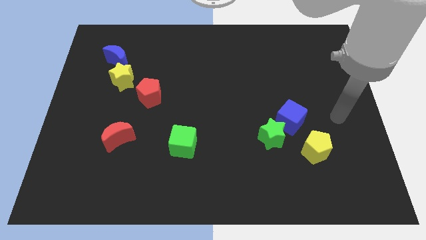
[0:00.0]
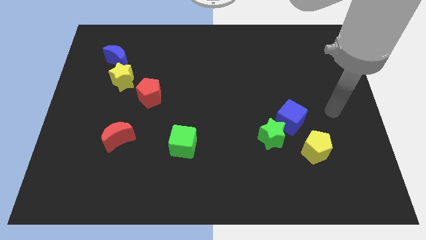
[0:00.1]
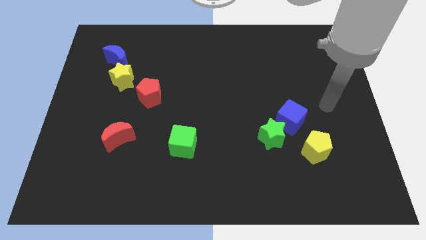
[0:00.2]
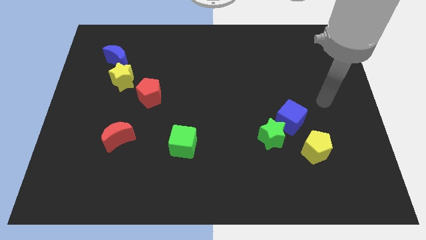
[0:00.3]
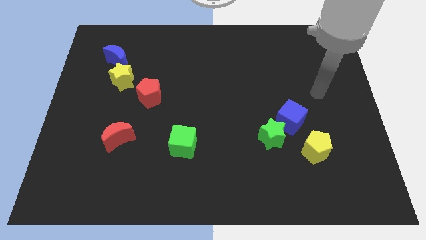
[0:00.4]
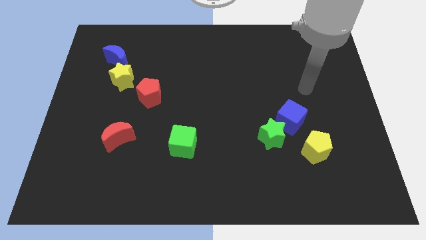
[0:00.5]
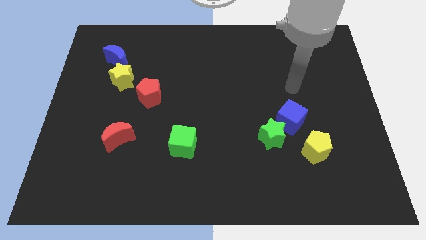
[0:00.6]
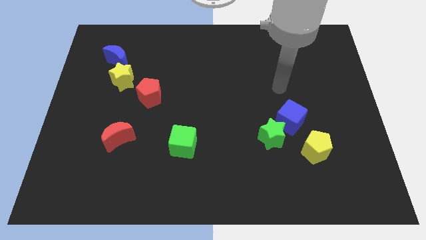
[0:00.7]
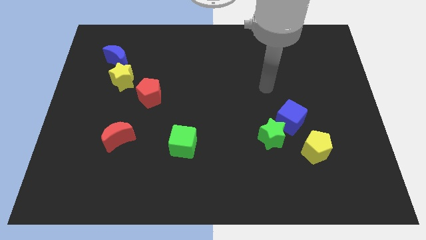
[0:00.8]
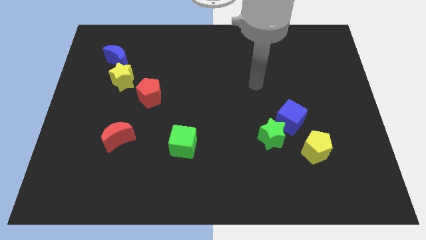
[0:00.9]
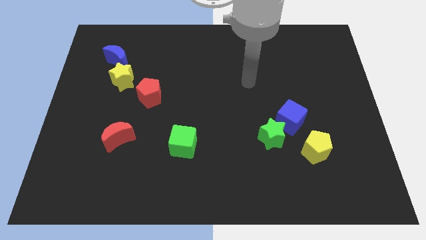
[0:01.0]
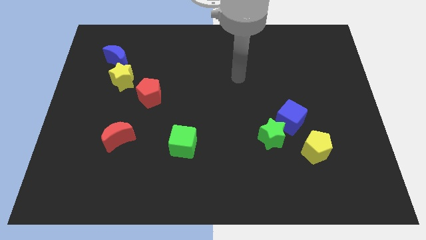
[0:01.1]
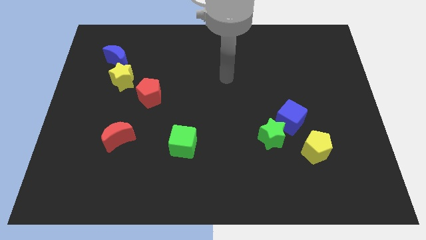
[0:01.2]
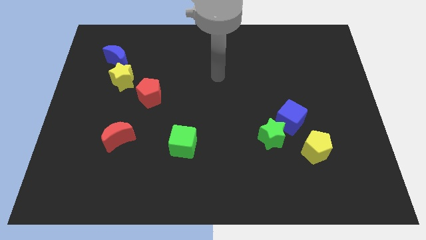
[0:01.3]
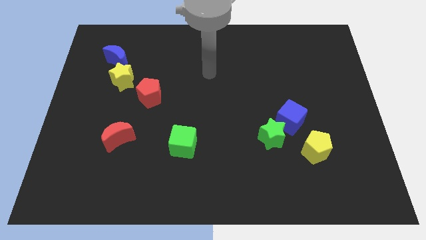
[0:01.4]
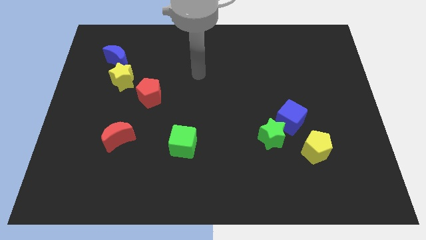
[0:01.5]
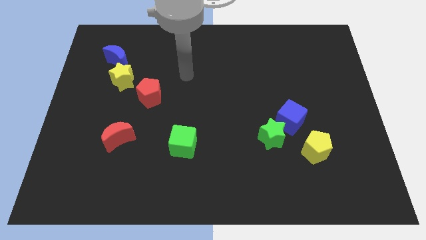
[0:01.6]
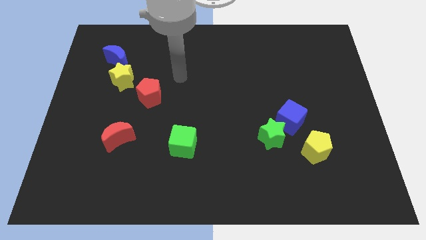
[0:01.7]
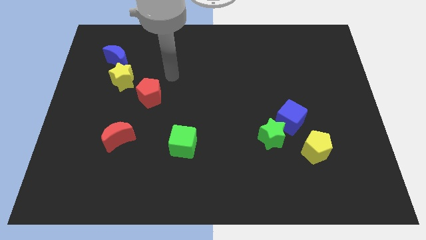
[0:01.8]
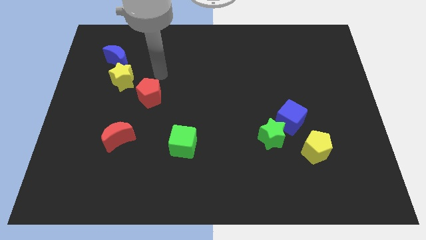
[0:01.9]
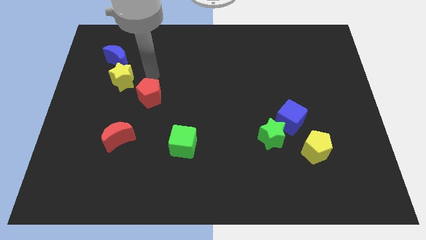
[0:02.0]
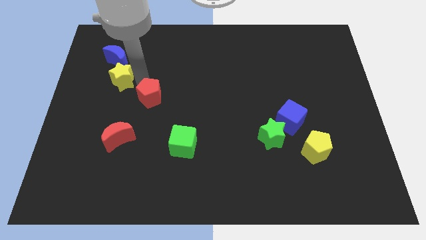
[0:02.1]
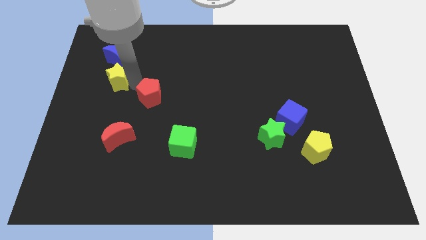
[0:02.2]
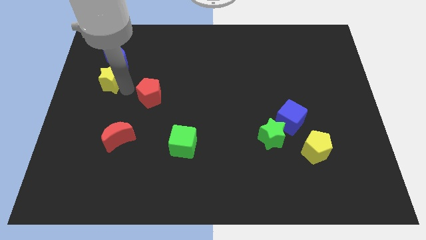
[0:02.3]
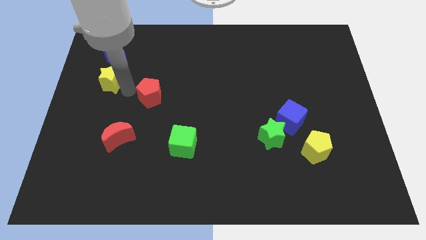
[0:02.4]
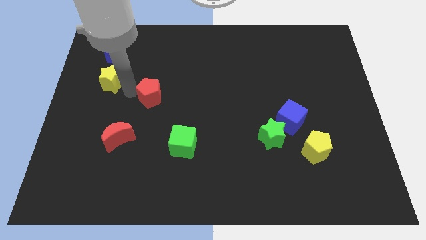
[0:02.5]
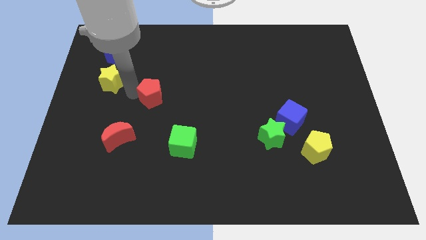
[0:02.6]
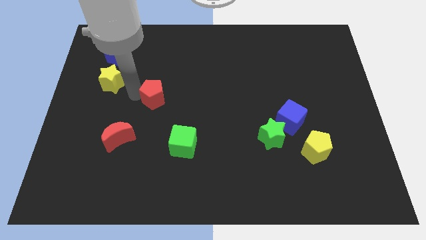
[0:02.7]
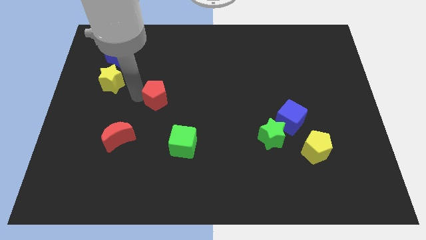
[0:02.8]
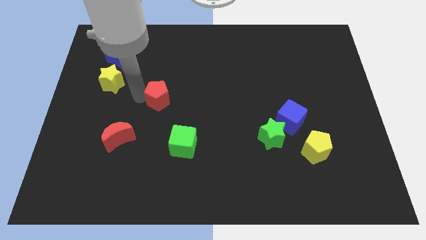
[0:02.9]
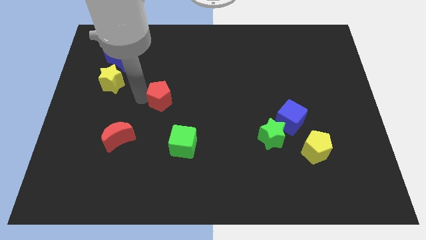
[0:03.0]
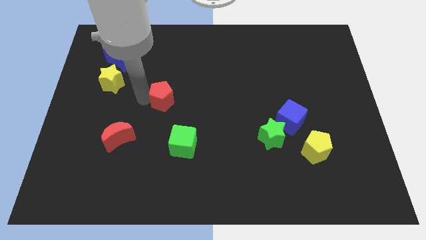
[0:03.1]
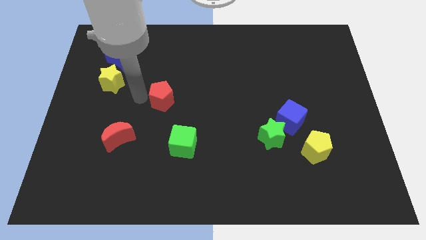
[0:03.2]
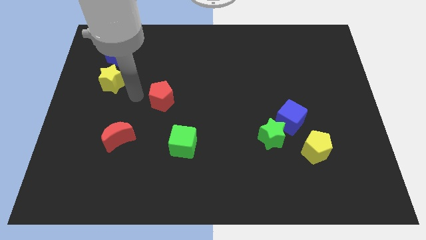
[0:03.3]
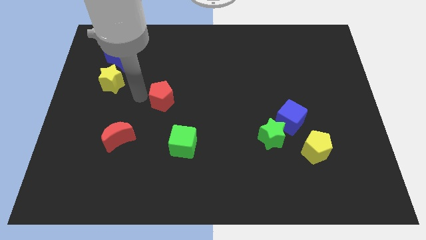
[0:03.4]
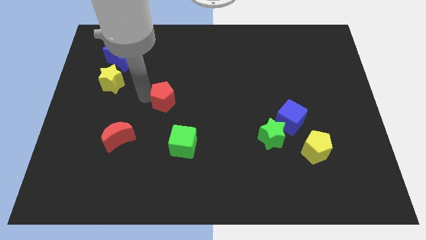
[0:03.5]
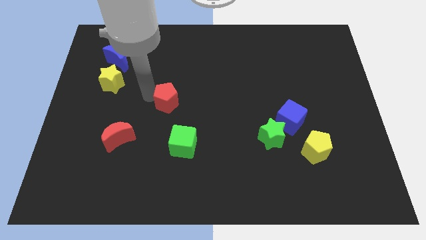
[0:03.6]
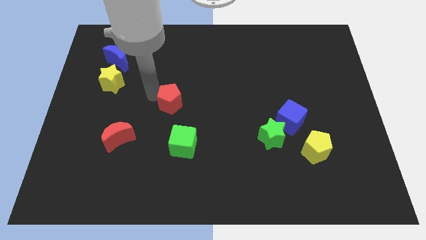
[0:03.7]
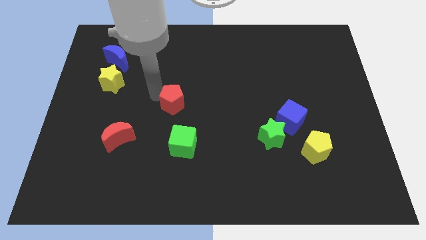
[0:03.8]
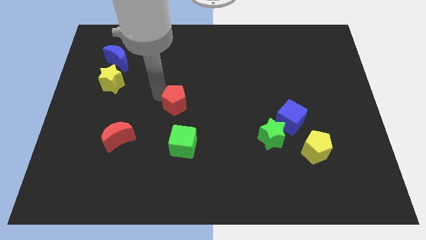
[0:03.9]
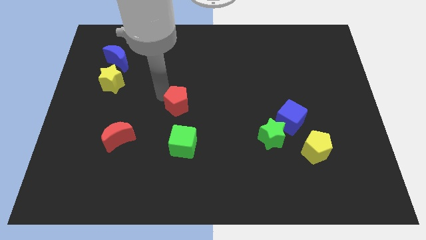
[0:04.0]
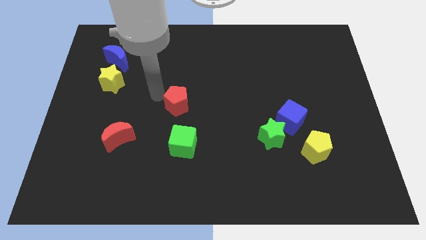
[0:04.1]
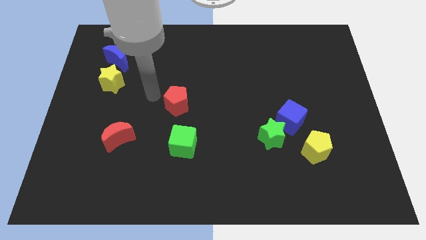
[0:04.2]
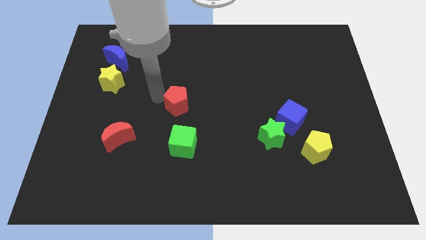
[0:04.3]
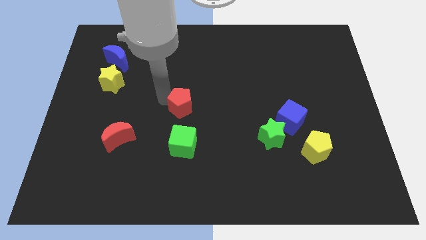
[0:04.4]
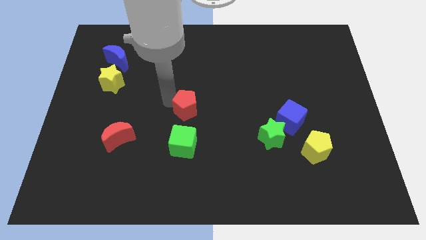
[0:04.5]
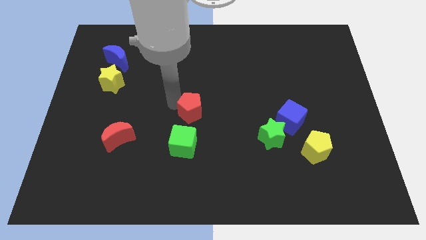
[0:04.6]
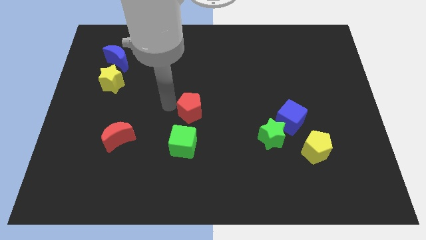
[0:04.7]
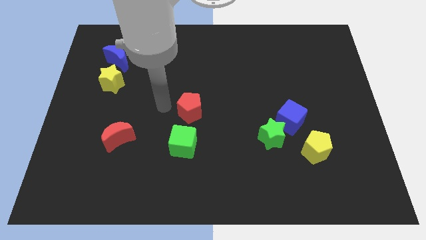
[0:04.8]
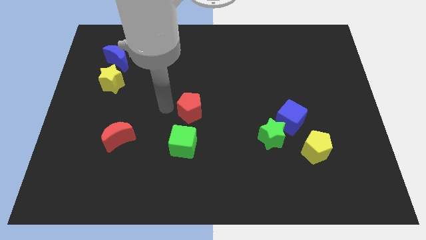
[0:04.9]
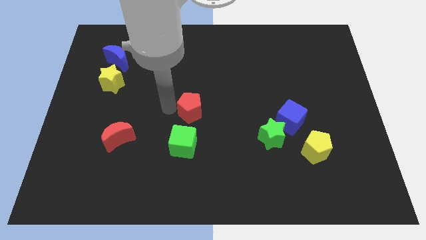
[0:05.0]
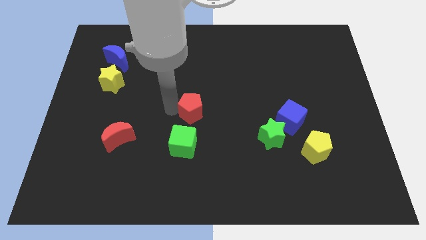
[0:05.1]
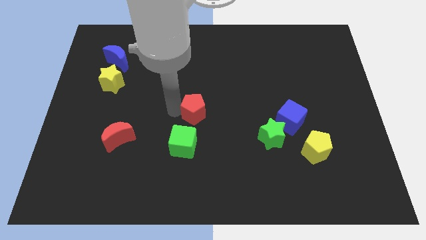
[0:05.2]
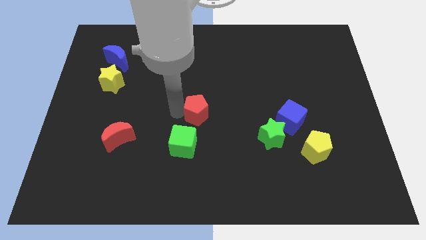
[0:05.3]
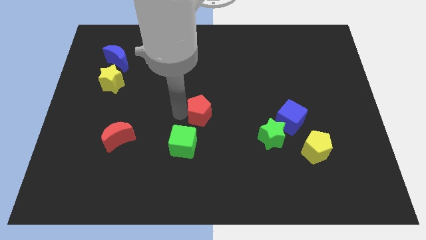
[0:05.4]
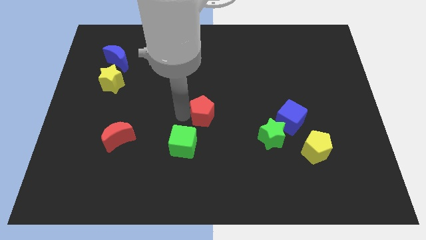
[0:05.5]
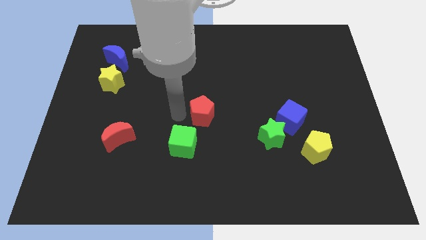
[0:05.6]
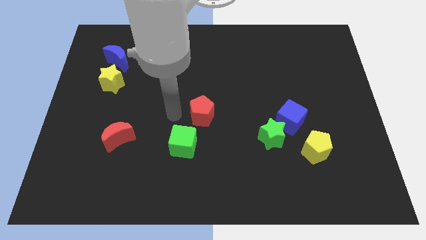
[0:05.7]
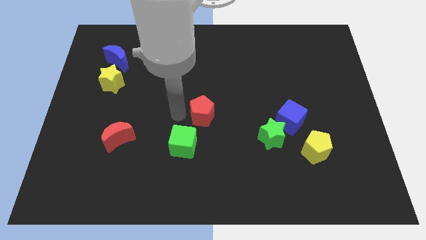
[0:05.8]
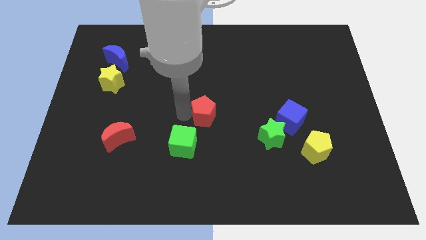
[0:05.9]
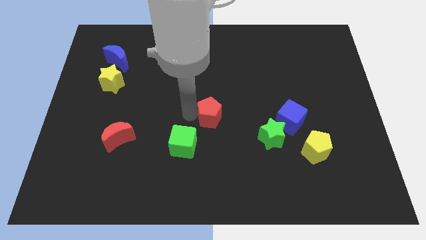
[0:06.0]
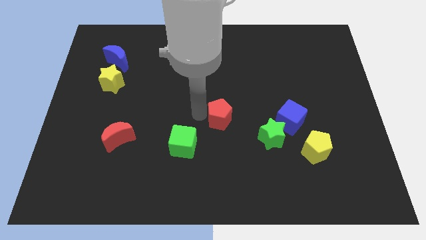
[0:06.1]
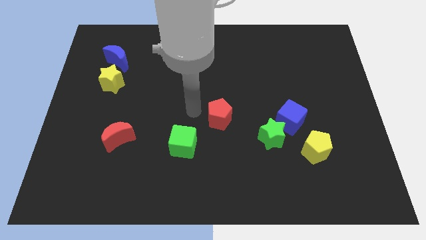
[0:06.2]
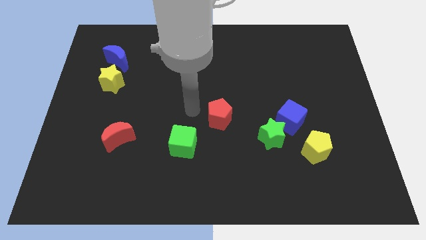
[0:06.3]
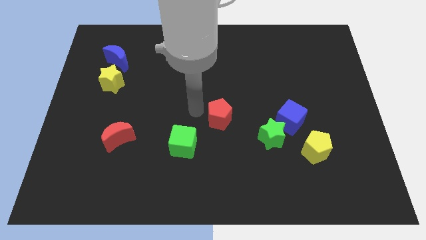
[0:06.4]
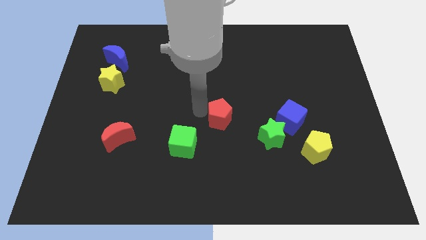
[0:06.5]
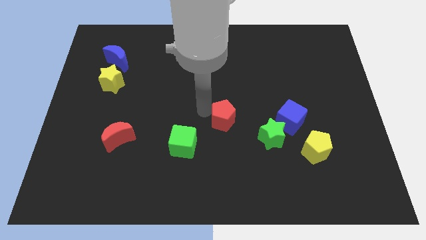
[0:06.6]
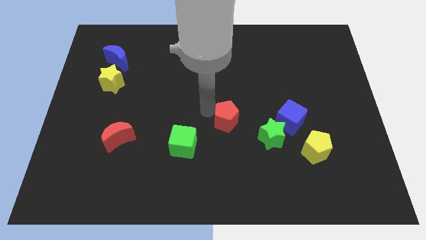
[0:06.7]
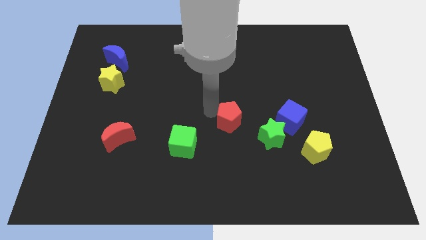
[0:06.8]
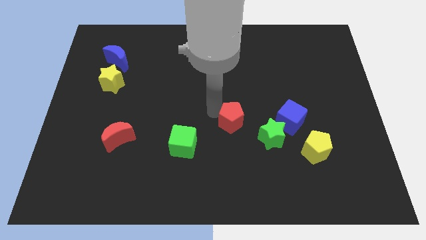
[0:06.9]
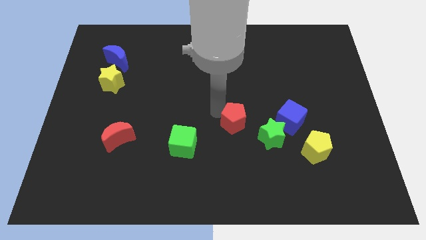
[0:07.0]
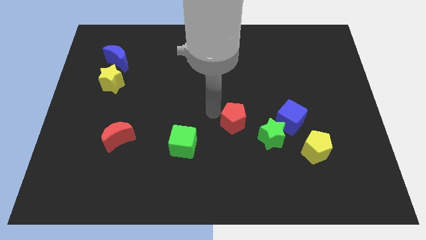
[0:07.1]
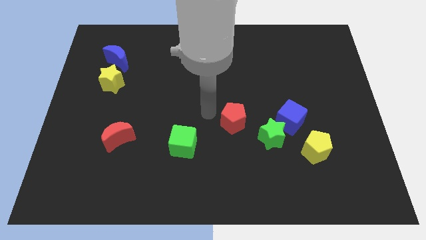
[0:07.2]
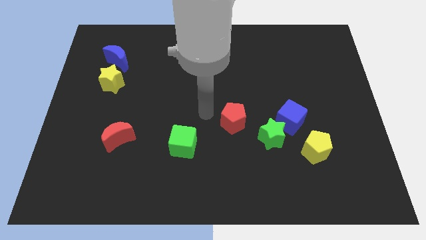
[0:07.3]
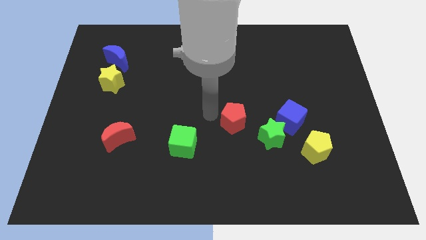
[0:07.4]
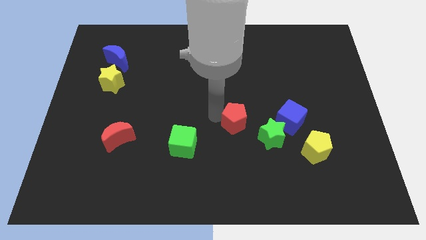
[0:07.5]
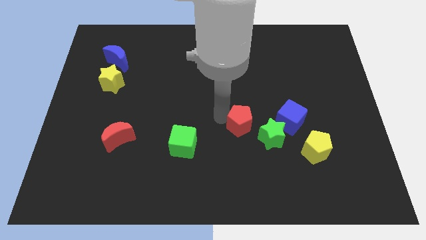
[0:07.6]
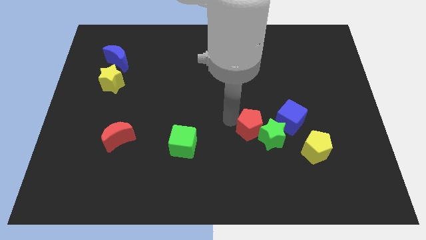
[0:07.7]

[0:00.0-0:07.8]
put the red pentagon next to the green star
